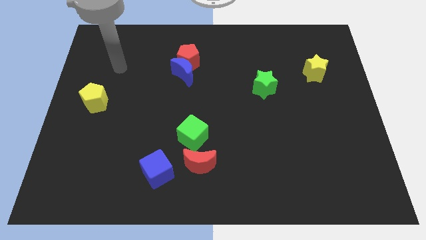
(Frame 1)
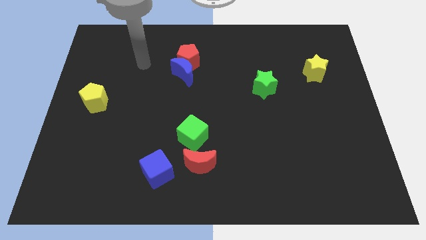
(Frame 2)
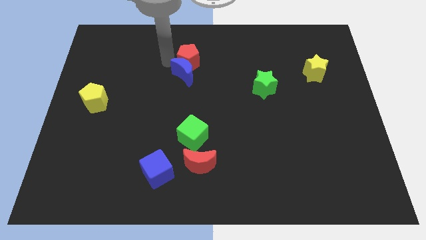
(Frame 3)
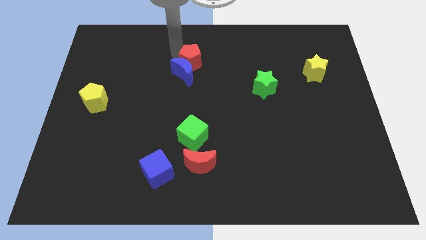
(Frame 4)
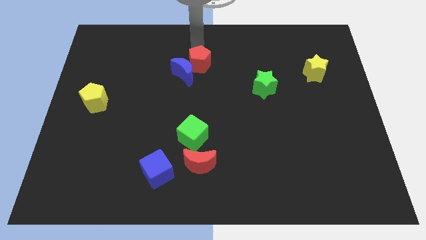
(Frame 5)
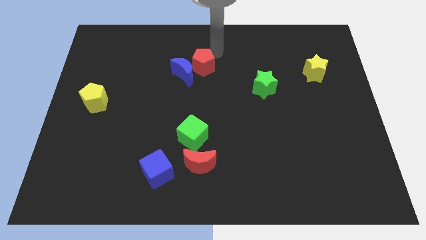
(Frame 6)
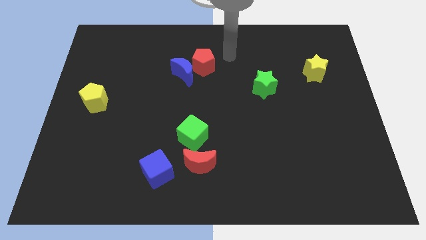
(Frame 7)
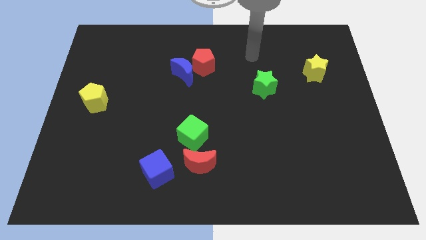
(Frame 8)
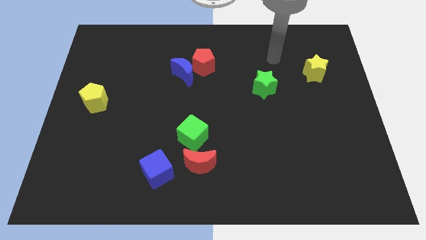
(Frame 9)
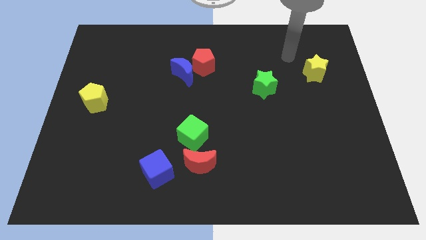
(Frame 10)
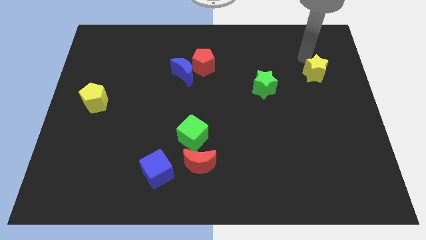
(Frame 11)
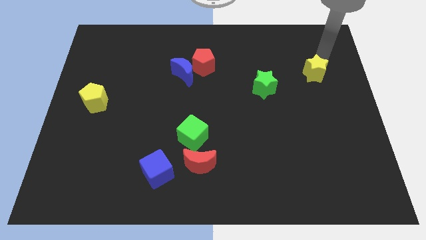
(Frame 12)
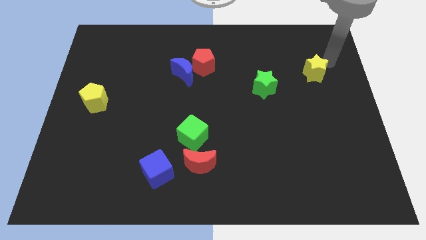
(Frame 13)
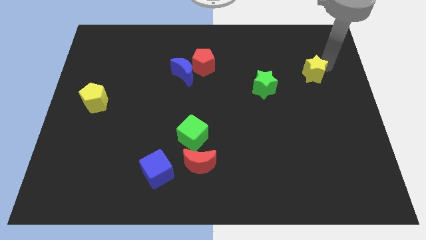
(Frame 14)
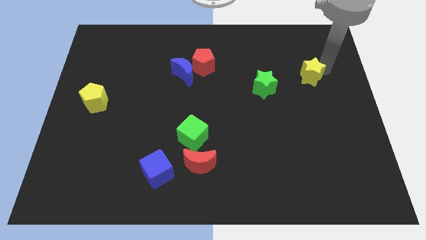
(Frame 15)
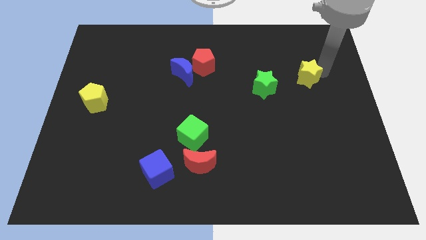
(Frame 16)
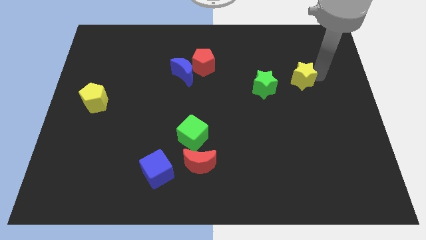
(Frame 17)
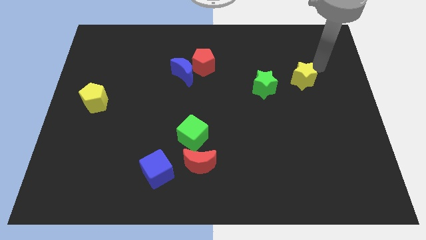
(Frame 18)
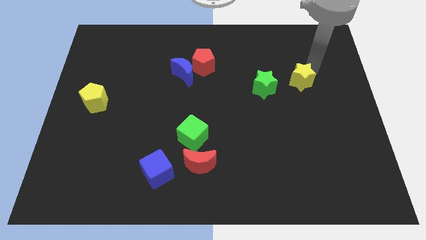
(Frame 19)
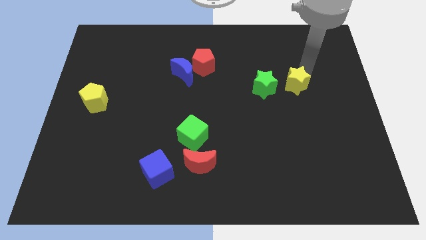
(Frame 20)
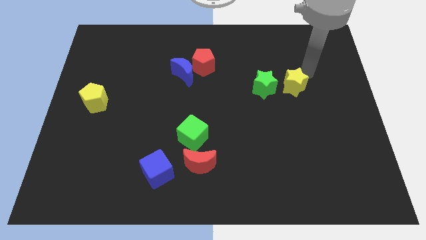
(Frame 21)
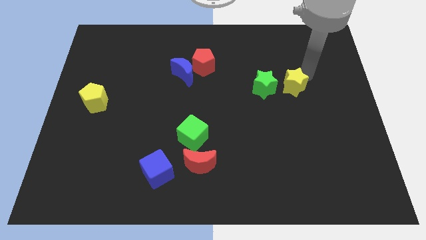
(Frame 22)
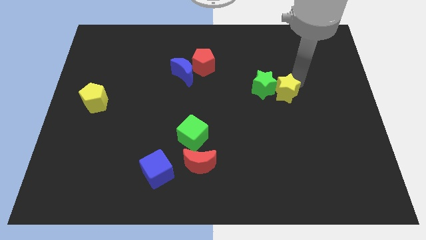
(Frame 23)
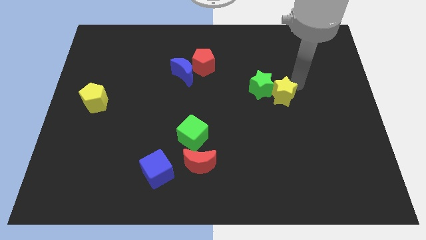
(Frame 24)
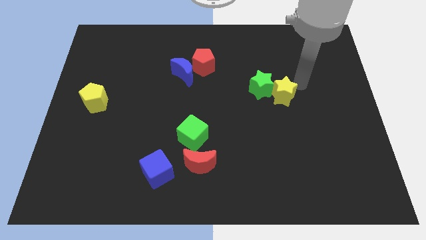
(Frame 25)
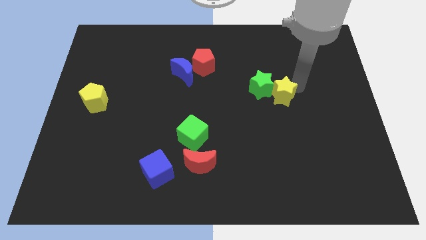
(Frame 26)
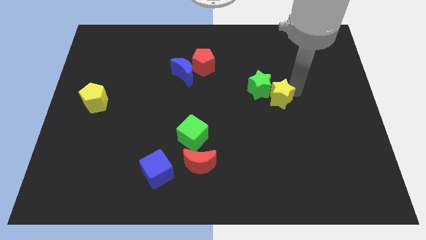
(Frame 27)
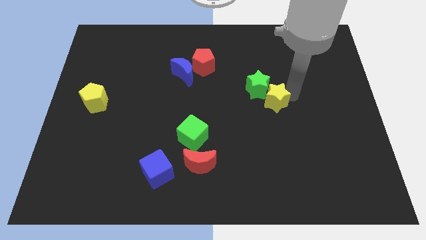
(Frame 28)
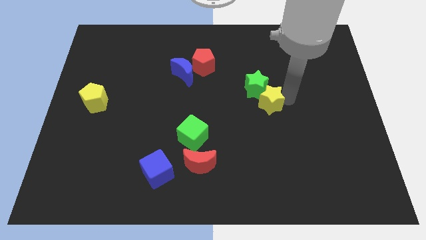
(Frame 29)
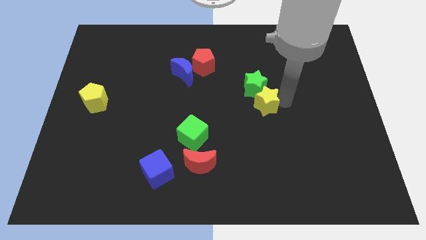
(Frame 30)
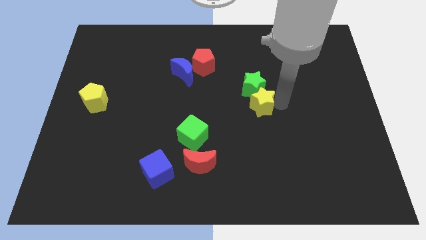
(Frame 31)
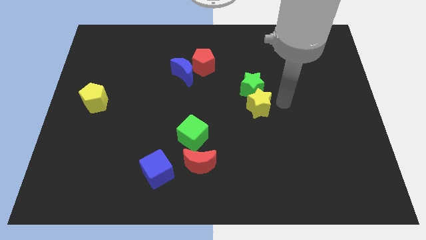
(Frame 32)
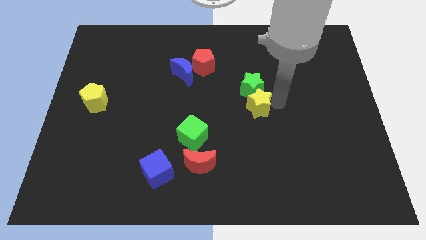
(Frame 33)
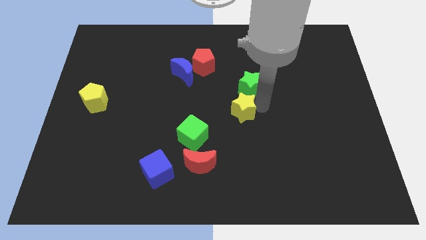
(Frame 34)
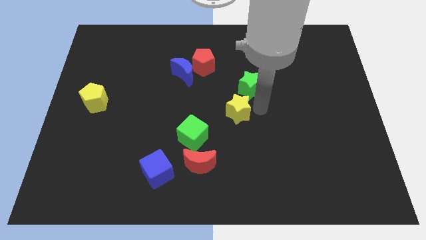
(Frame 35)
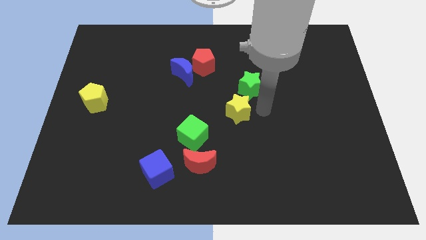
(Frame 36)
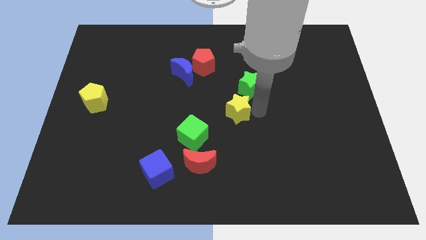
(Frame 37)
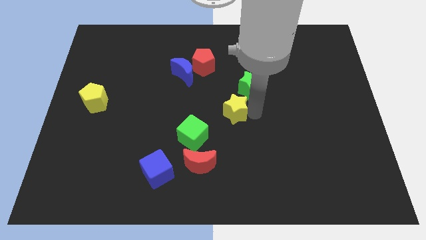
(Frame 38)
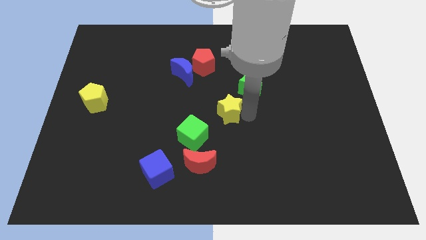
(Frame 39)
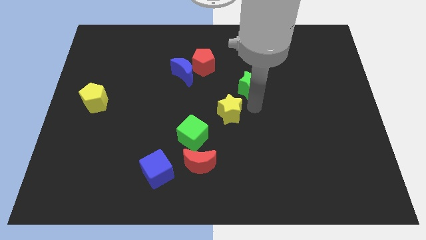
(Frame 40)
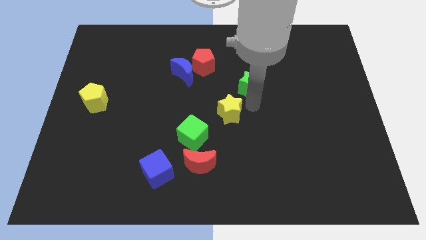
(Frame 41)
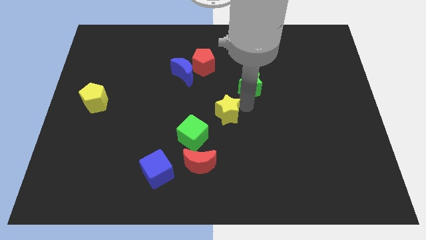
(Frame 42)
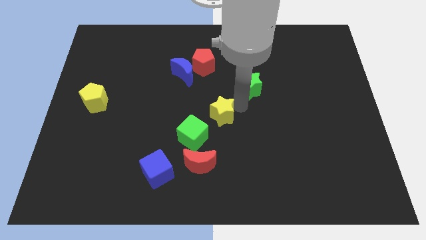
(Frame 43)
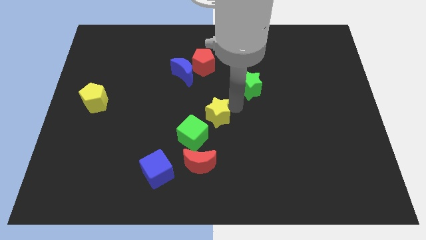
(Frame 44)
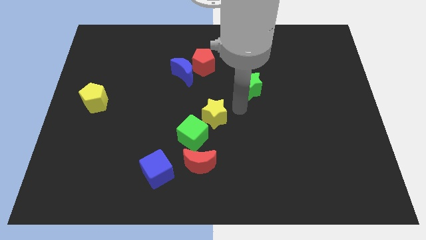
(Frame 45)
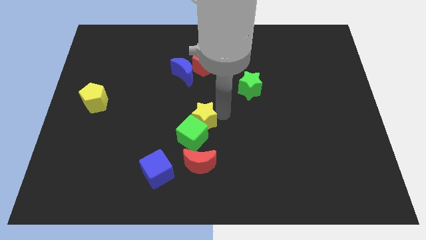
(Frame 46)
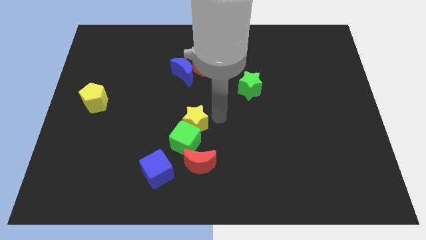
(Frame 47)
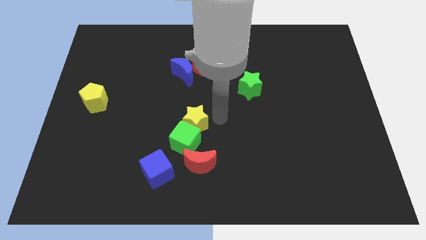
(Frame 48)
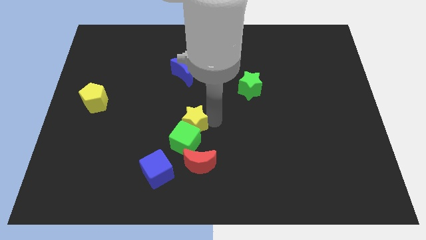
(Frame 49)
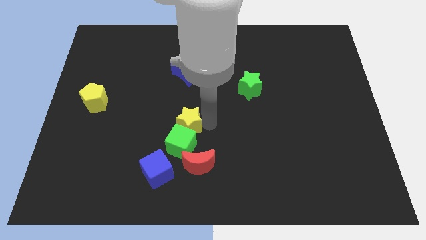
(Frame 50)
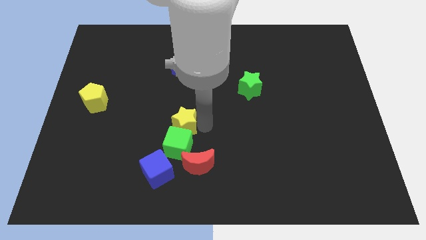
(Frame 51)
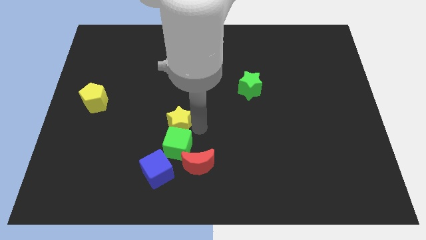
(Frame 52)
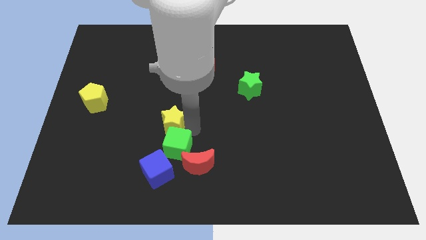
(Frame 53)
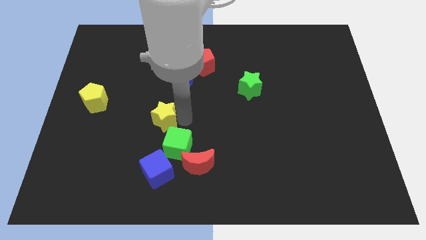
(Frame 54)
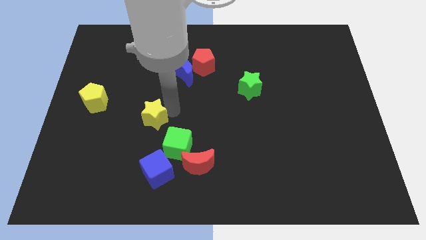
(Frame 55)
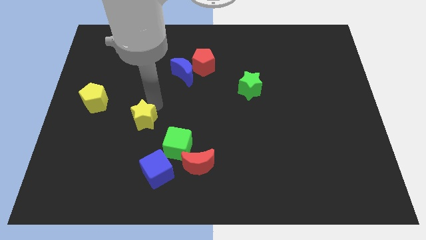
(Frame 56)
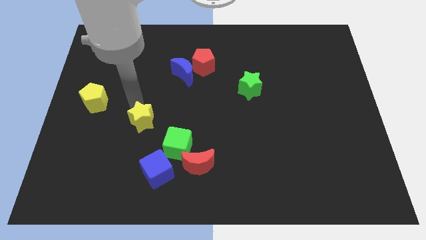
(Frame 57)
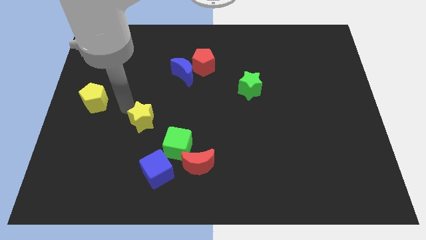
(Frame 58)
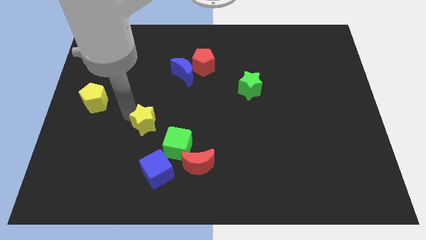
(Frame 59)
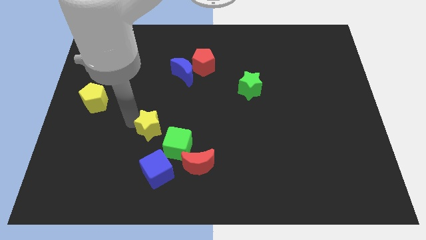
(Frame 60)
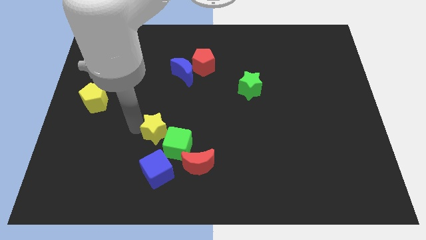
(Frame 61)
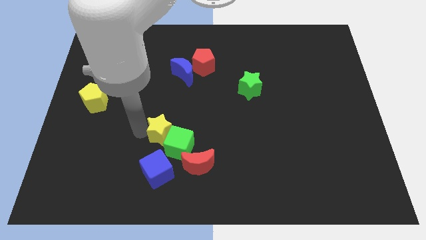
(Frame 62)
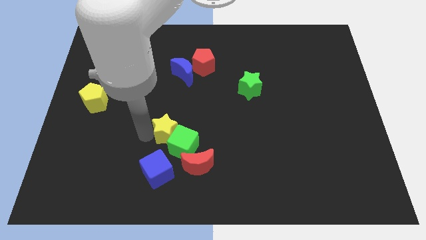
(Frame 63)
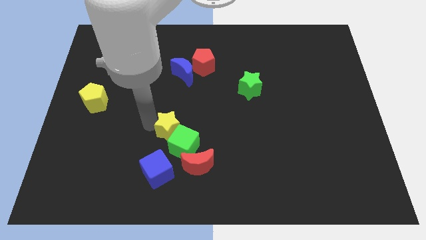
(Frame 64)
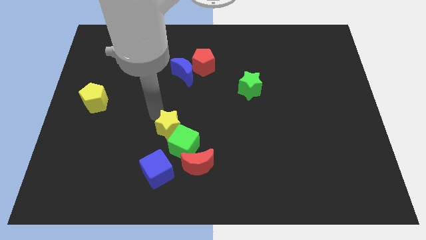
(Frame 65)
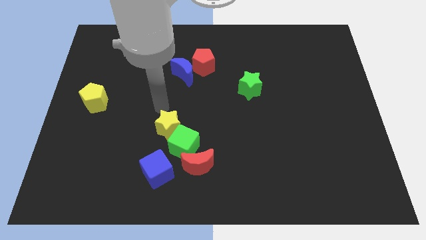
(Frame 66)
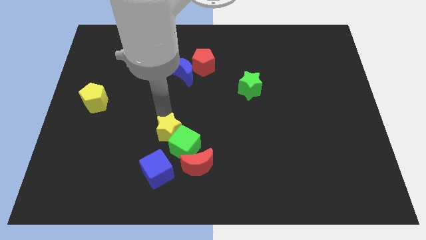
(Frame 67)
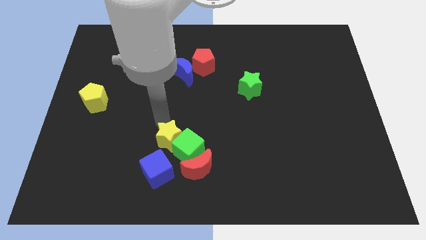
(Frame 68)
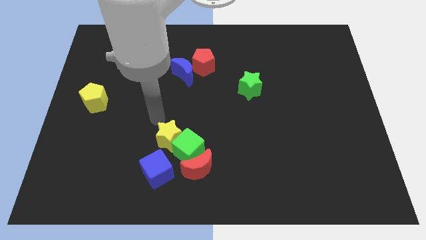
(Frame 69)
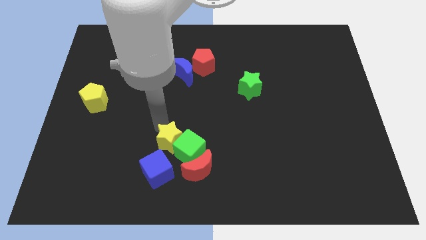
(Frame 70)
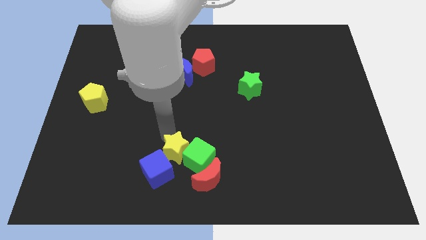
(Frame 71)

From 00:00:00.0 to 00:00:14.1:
push the yellow star close to the blue cube
